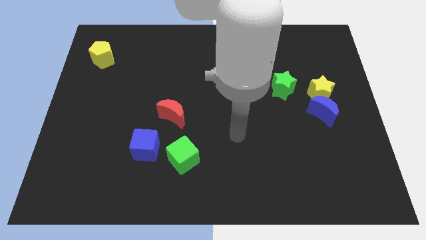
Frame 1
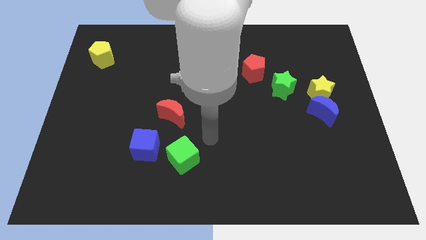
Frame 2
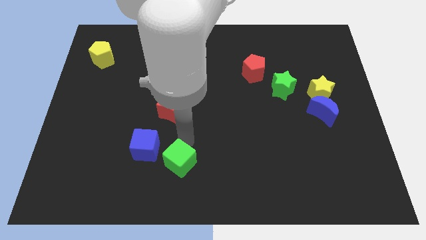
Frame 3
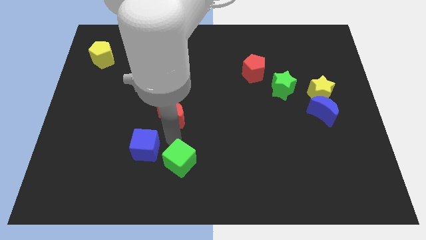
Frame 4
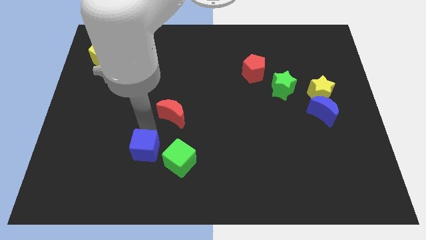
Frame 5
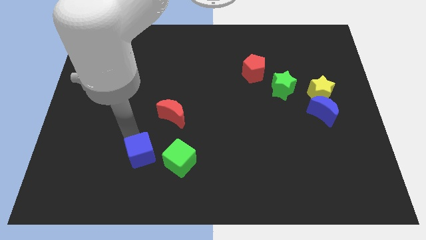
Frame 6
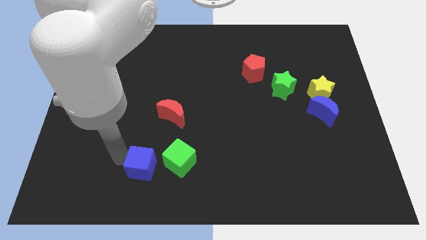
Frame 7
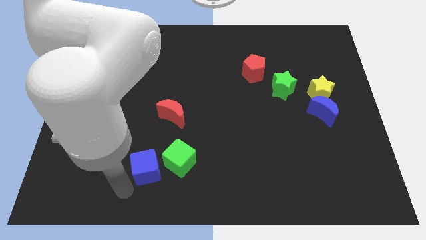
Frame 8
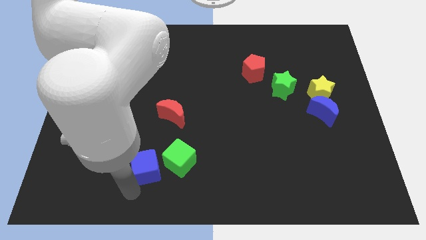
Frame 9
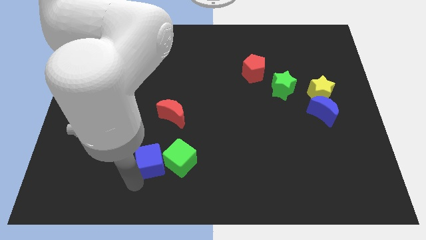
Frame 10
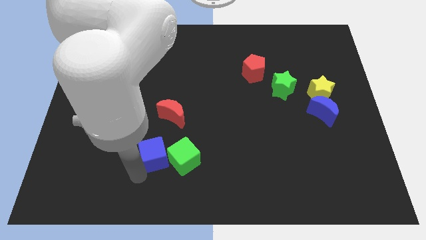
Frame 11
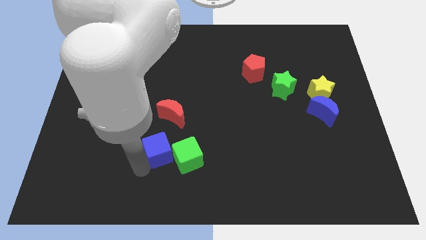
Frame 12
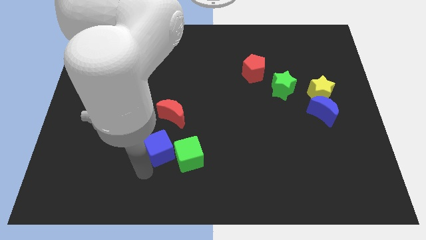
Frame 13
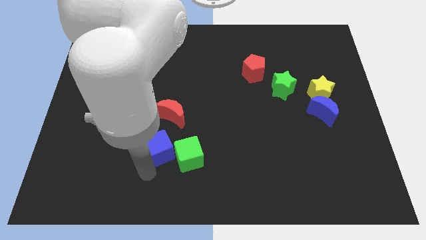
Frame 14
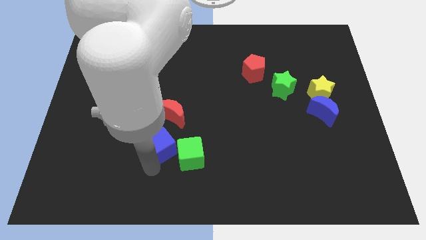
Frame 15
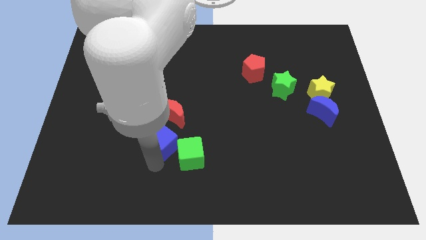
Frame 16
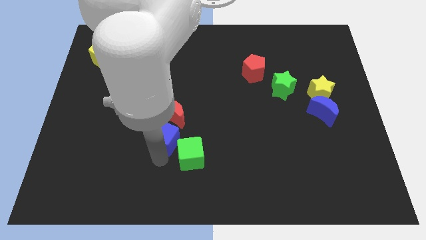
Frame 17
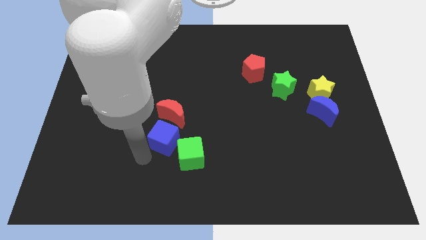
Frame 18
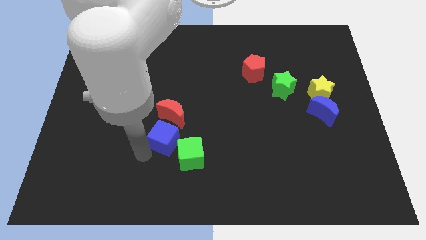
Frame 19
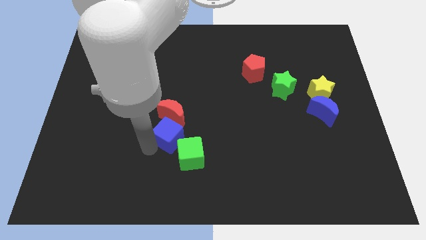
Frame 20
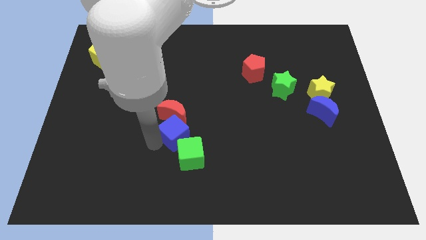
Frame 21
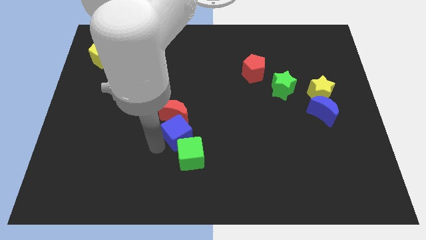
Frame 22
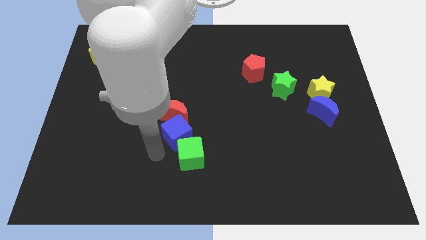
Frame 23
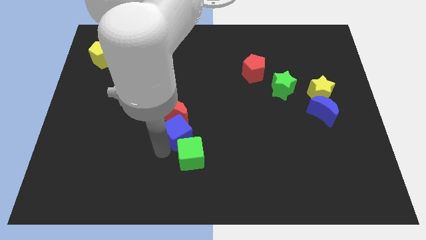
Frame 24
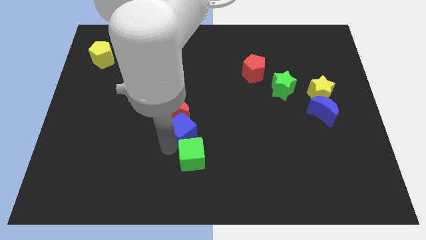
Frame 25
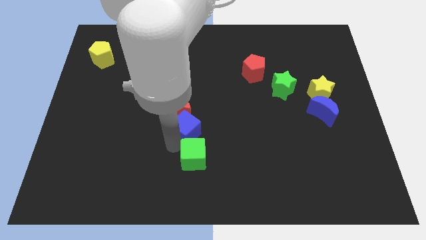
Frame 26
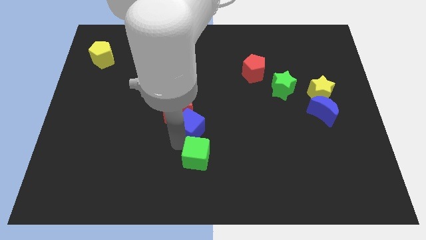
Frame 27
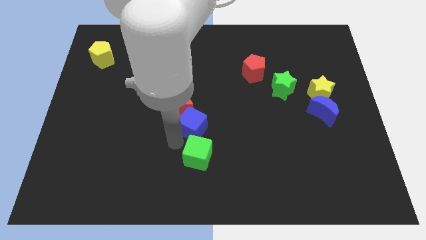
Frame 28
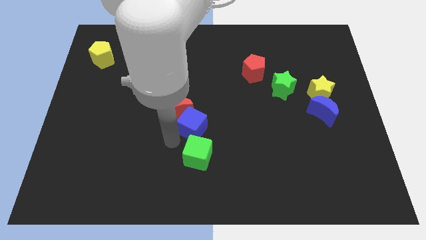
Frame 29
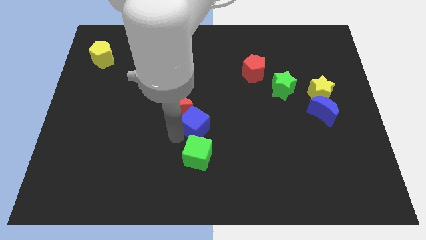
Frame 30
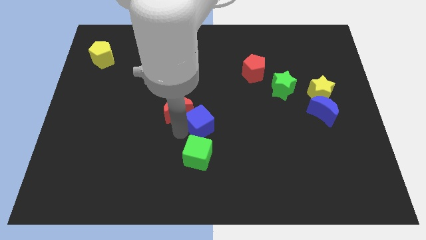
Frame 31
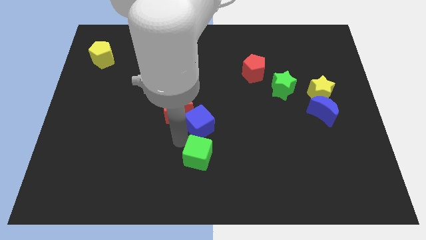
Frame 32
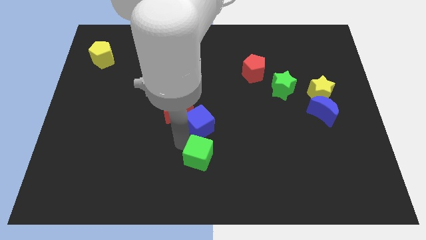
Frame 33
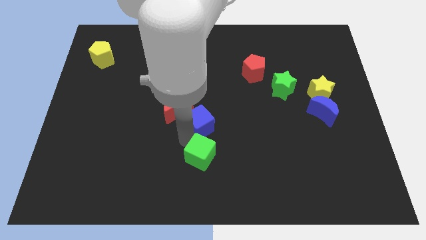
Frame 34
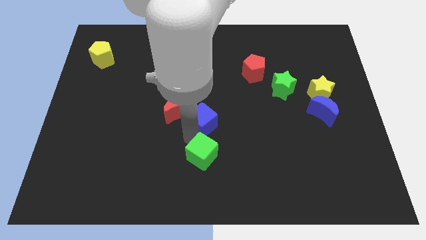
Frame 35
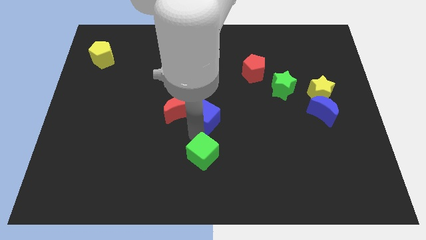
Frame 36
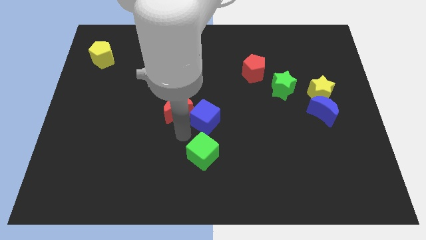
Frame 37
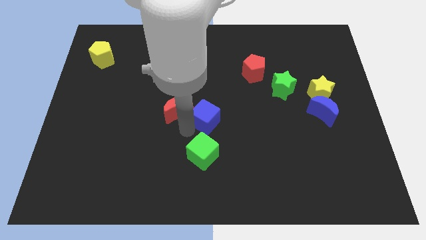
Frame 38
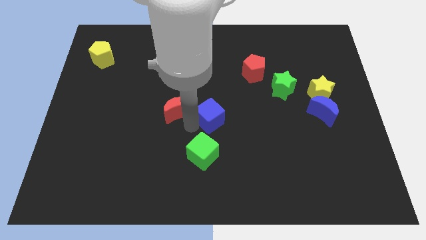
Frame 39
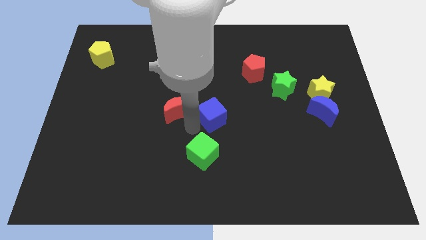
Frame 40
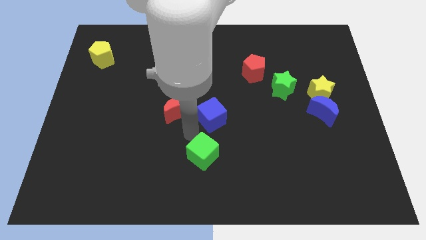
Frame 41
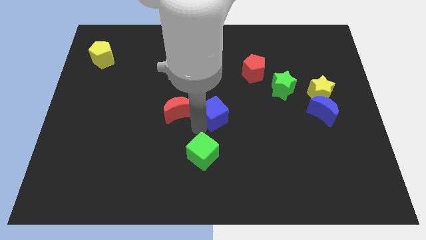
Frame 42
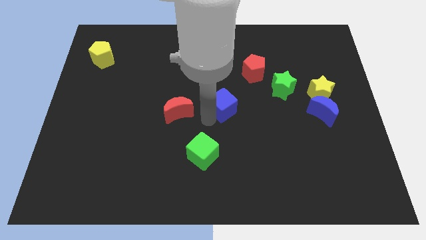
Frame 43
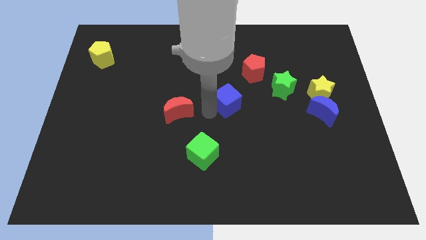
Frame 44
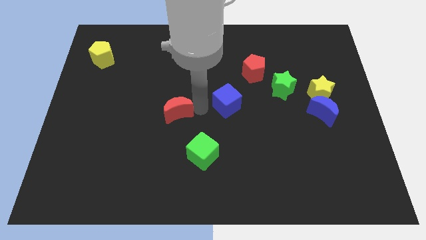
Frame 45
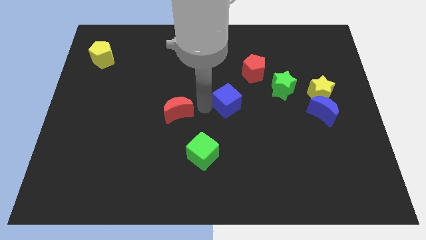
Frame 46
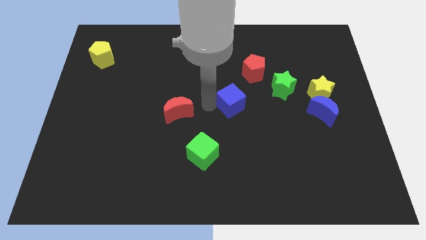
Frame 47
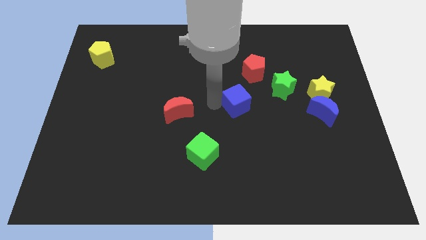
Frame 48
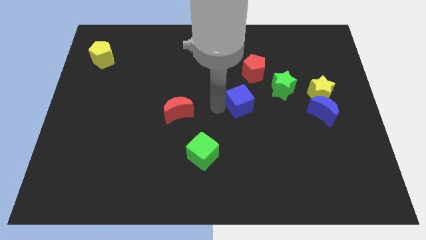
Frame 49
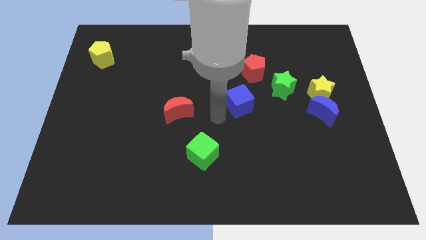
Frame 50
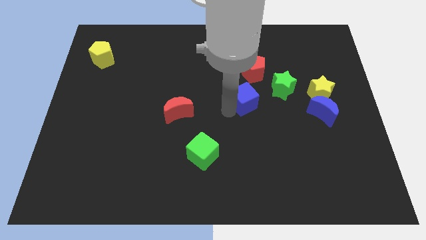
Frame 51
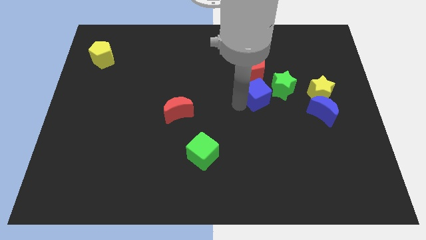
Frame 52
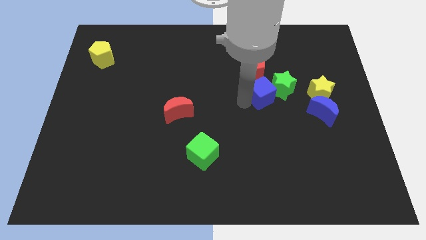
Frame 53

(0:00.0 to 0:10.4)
push the blue cube close to the green star

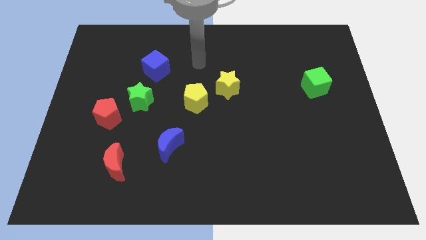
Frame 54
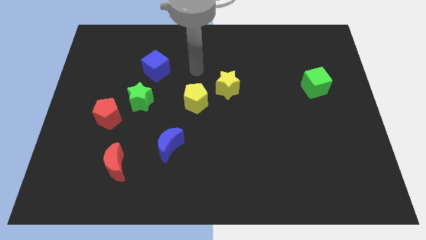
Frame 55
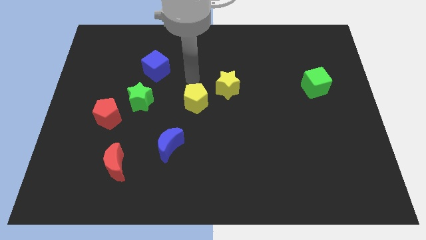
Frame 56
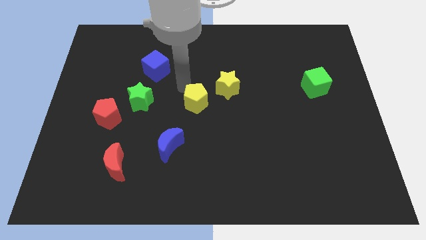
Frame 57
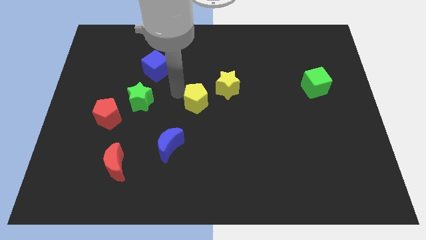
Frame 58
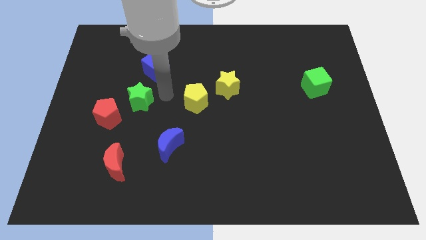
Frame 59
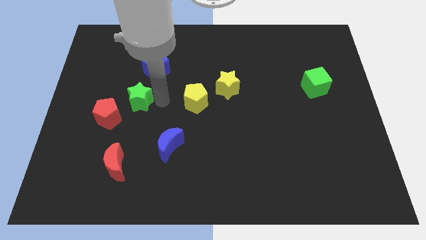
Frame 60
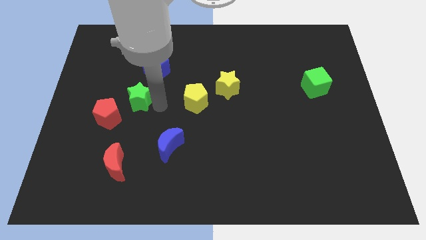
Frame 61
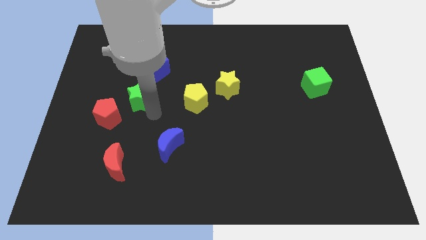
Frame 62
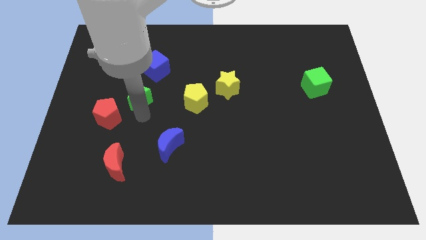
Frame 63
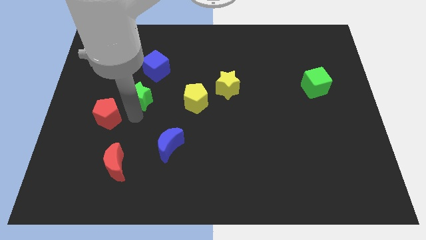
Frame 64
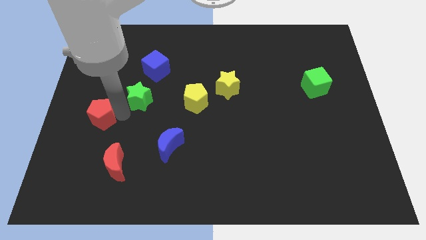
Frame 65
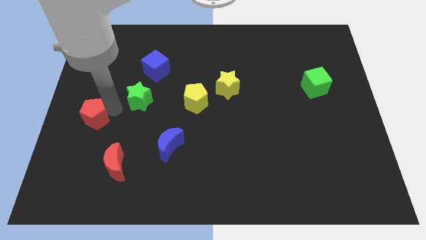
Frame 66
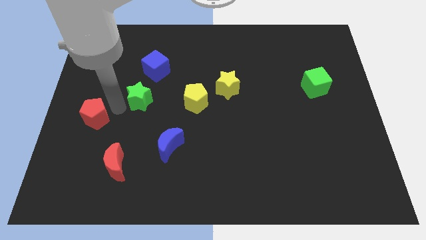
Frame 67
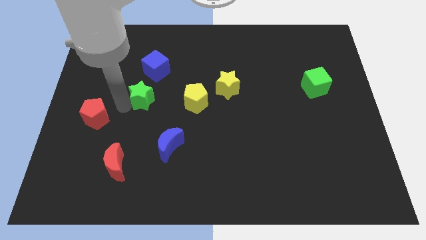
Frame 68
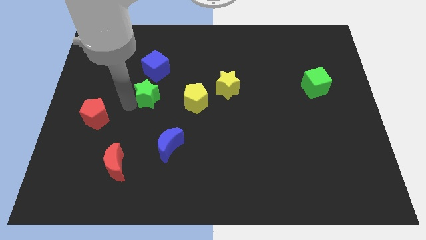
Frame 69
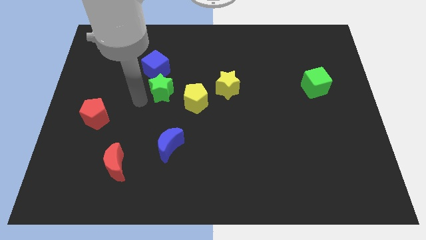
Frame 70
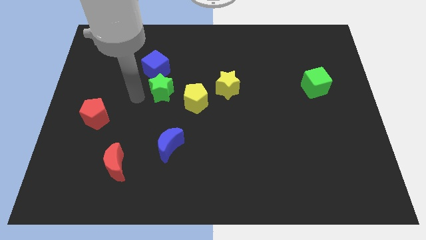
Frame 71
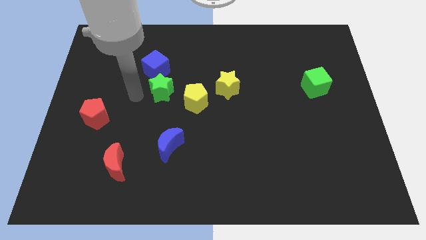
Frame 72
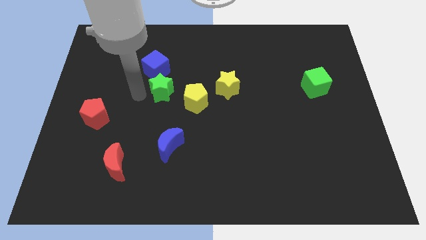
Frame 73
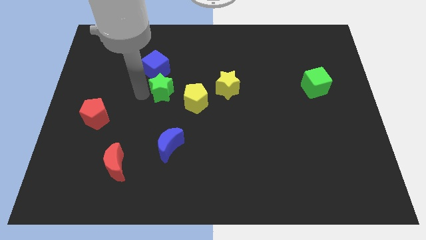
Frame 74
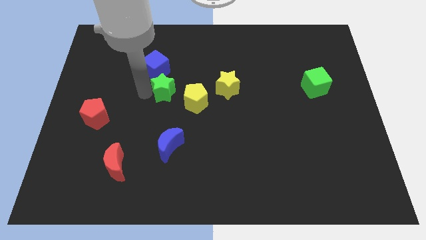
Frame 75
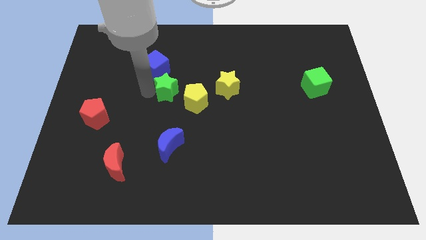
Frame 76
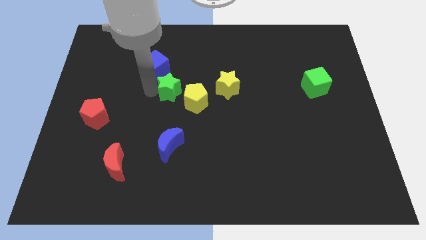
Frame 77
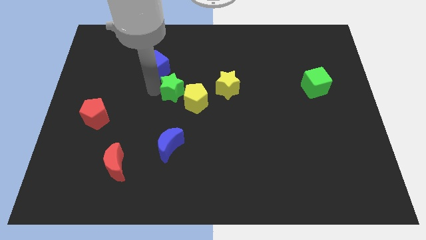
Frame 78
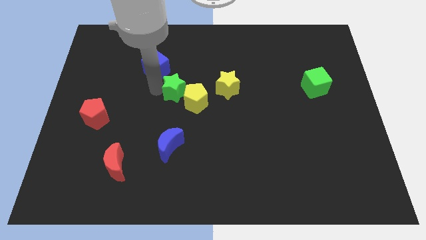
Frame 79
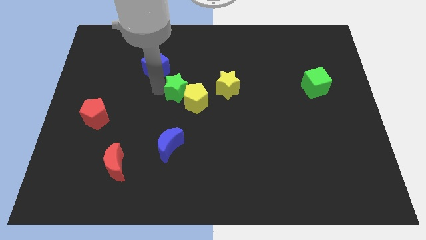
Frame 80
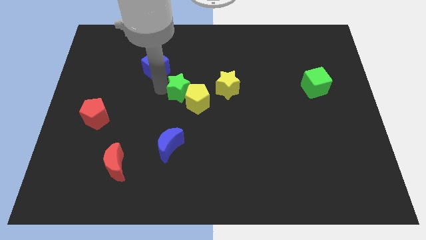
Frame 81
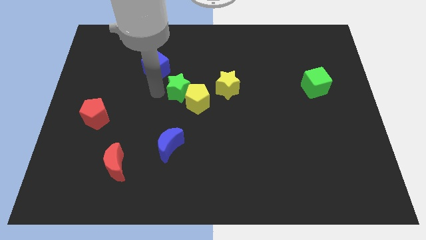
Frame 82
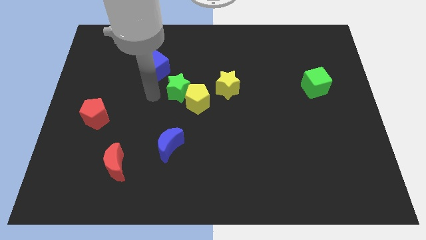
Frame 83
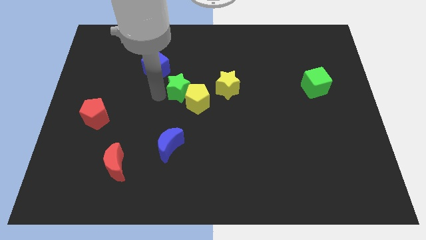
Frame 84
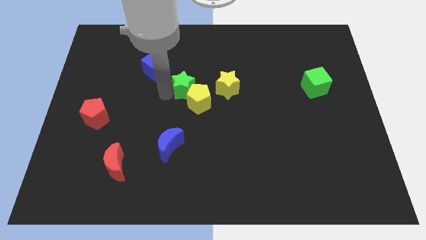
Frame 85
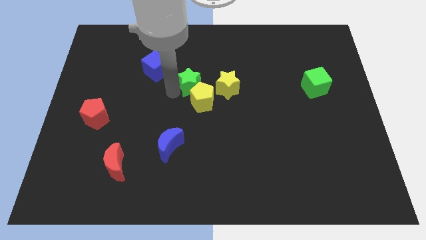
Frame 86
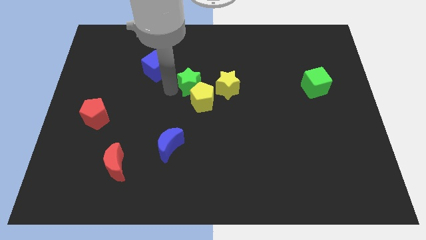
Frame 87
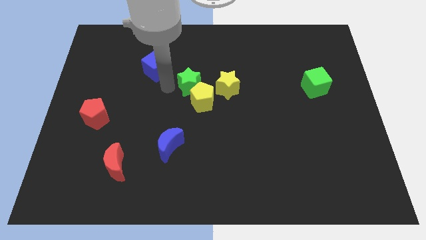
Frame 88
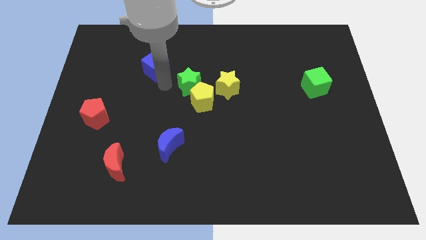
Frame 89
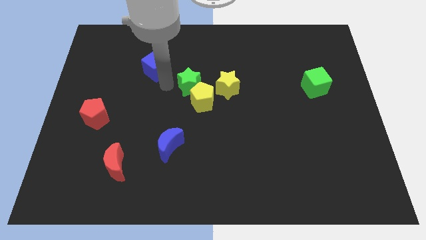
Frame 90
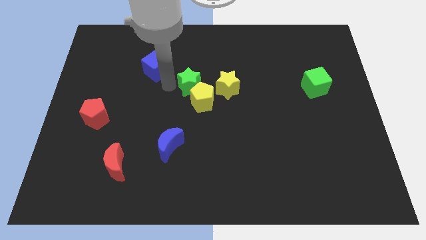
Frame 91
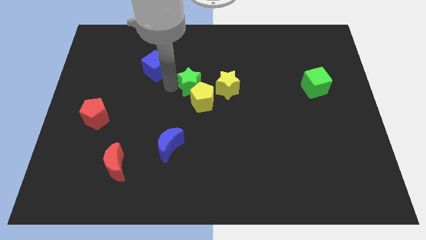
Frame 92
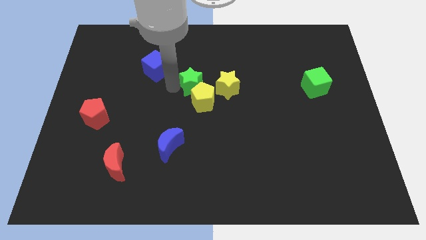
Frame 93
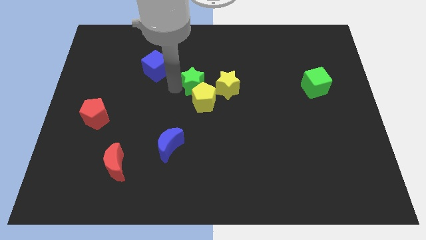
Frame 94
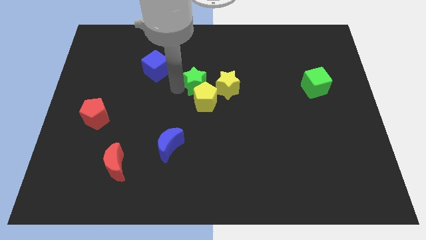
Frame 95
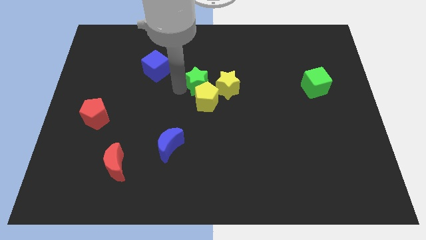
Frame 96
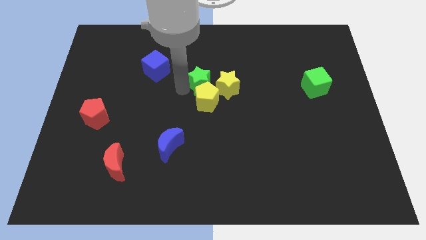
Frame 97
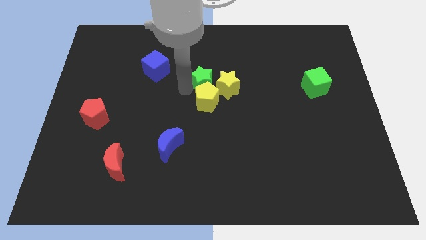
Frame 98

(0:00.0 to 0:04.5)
move the green star towards the yellow star
